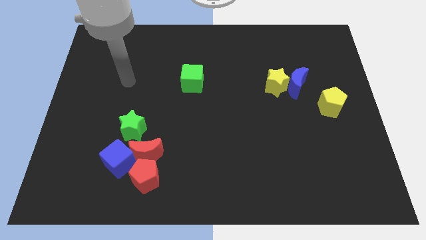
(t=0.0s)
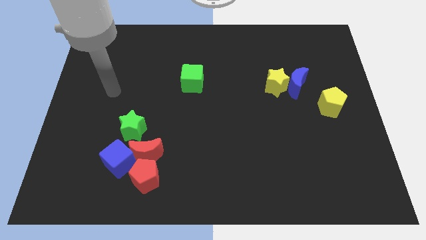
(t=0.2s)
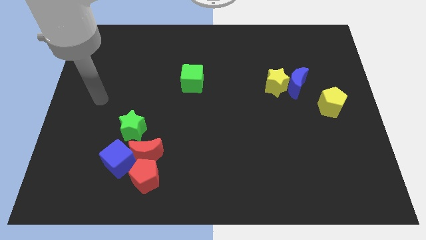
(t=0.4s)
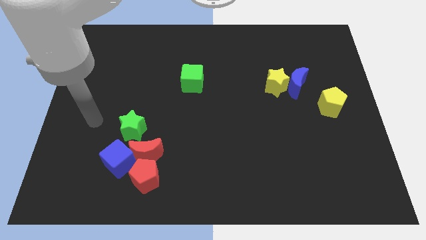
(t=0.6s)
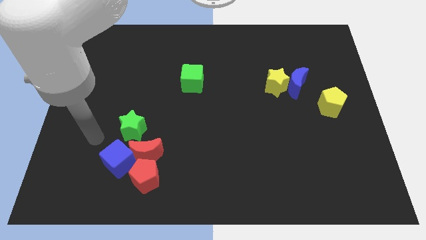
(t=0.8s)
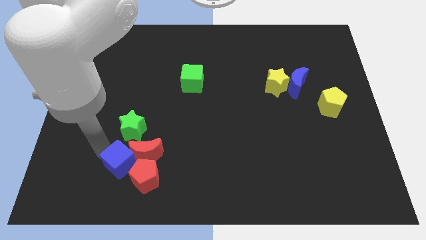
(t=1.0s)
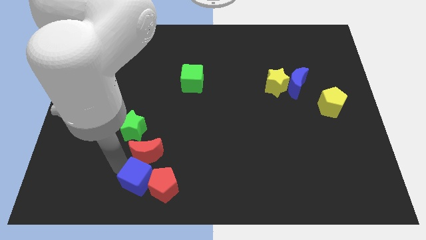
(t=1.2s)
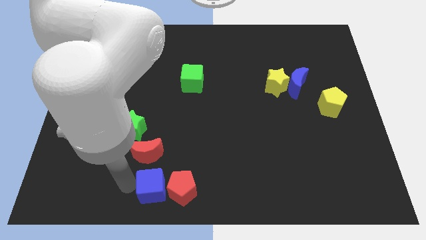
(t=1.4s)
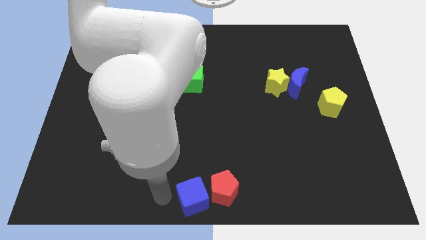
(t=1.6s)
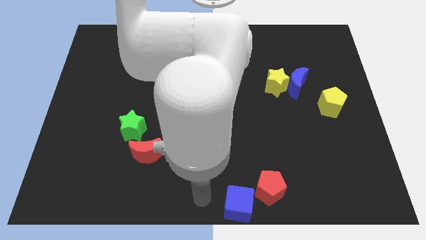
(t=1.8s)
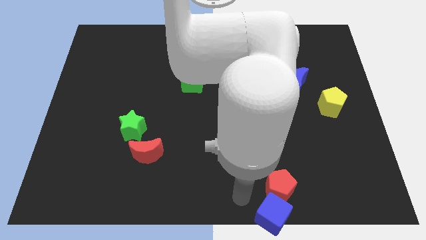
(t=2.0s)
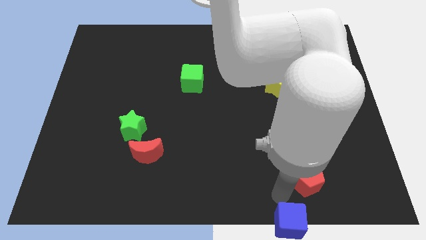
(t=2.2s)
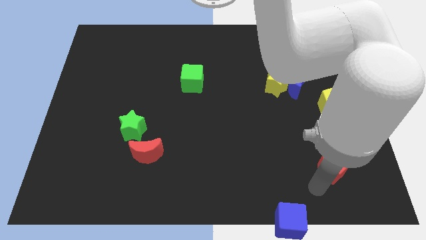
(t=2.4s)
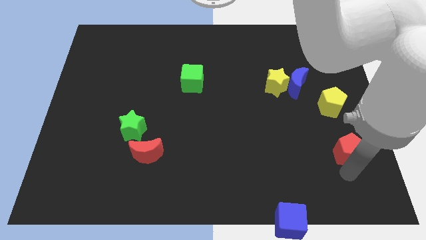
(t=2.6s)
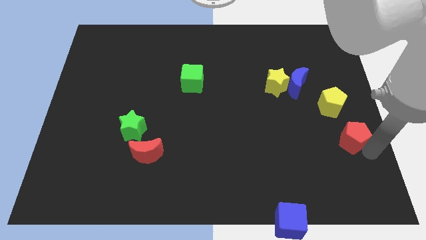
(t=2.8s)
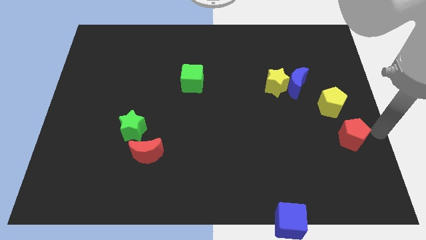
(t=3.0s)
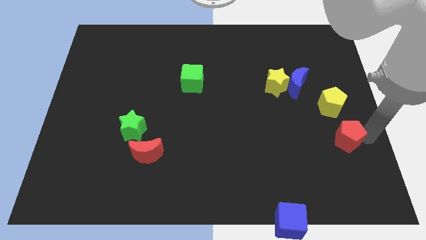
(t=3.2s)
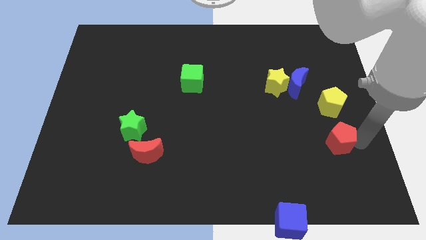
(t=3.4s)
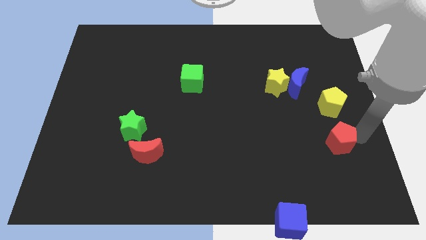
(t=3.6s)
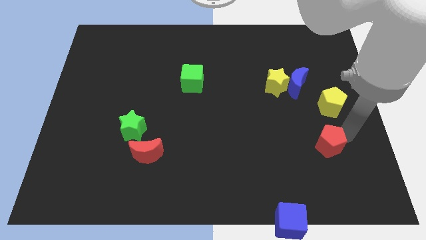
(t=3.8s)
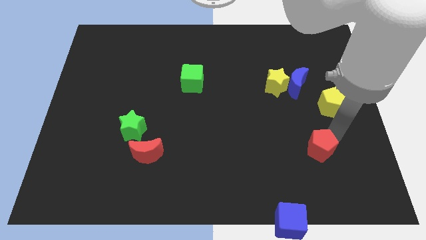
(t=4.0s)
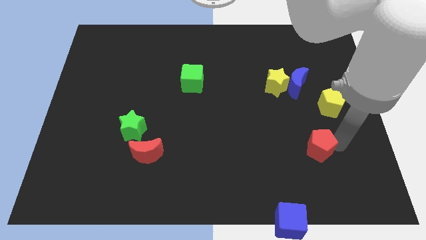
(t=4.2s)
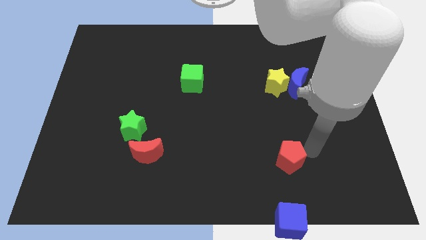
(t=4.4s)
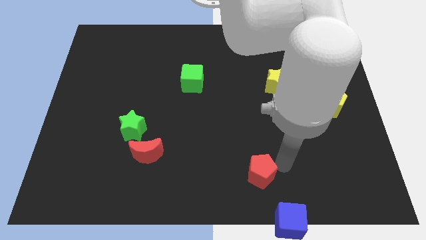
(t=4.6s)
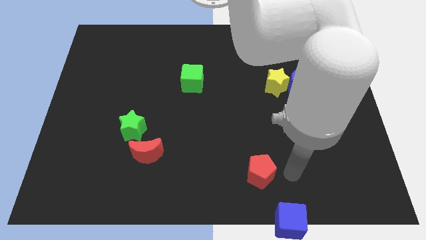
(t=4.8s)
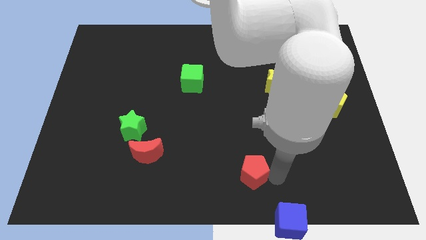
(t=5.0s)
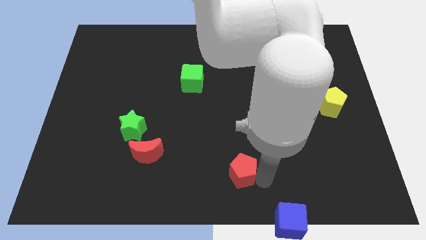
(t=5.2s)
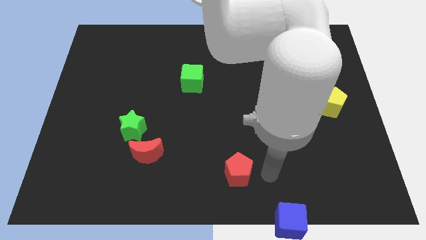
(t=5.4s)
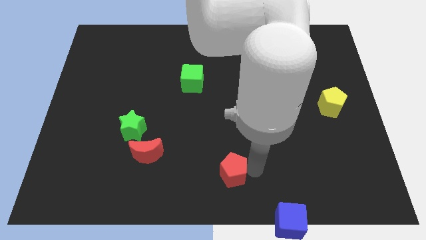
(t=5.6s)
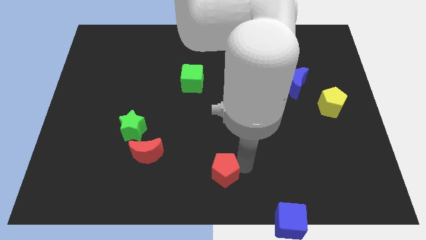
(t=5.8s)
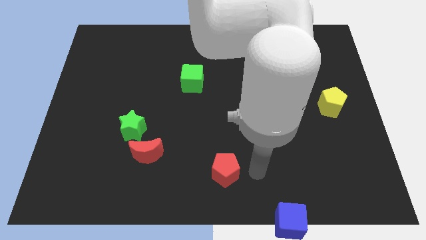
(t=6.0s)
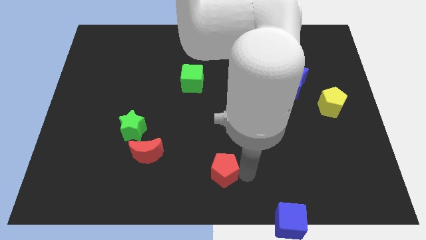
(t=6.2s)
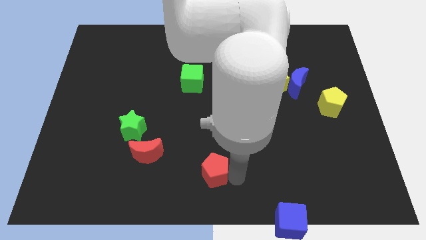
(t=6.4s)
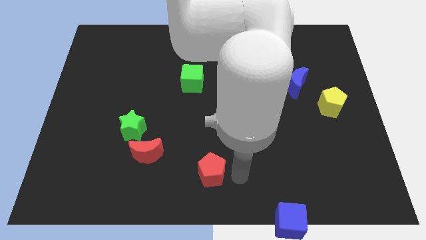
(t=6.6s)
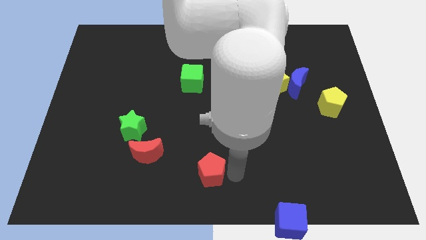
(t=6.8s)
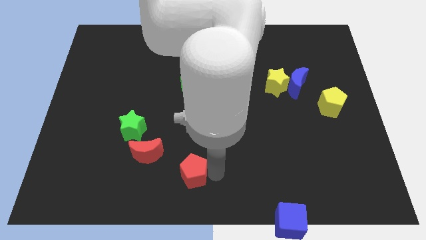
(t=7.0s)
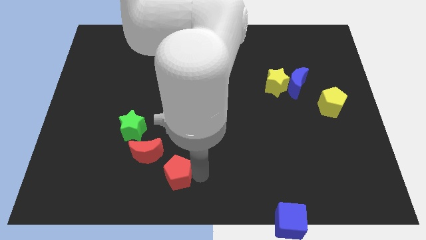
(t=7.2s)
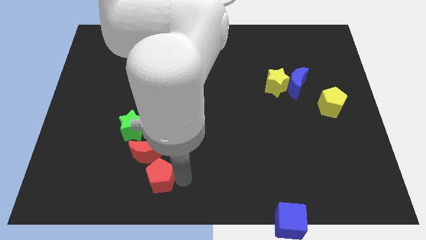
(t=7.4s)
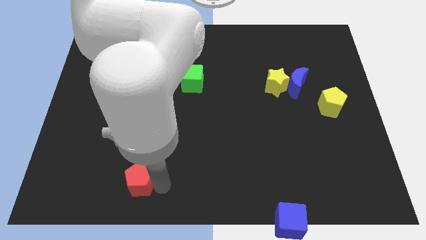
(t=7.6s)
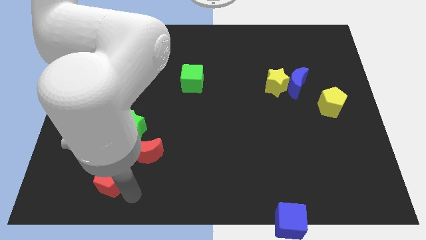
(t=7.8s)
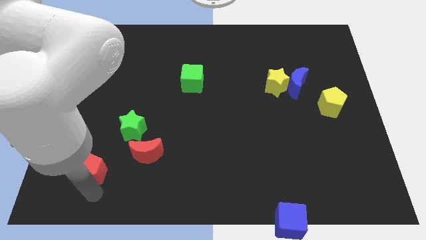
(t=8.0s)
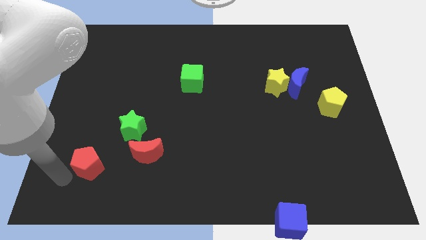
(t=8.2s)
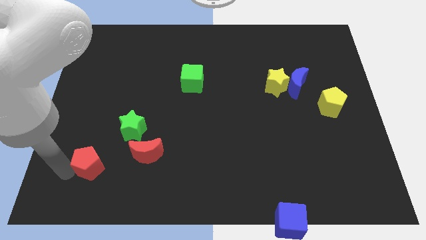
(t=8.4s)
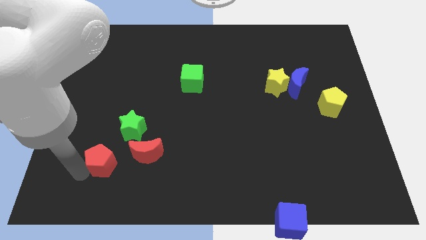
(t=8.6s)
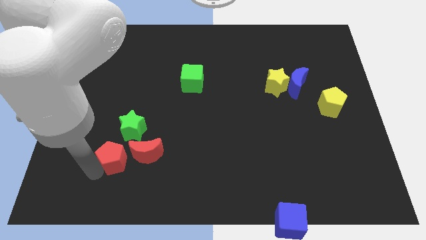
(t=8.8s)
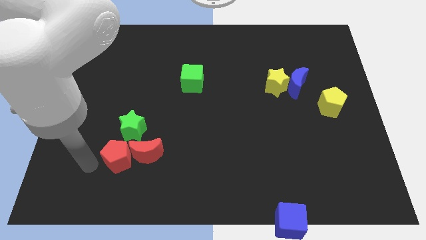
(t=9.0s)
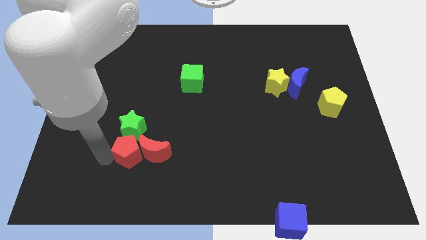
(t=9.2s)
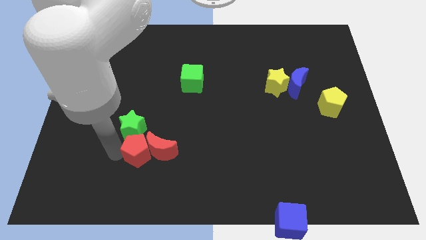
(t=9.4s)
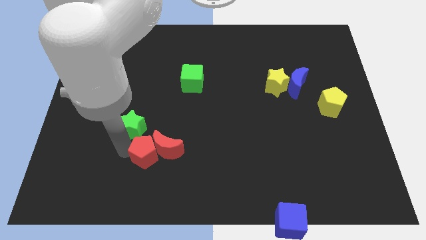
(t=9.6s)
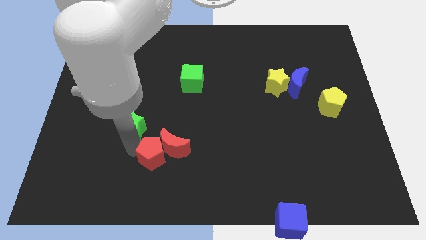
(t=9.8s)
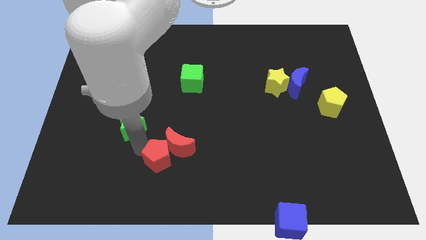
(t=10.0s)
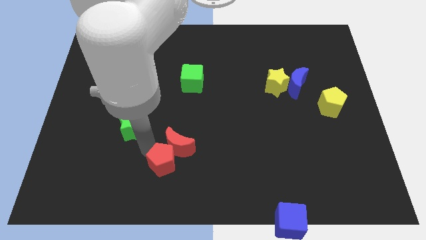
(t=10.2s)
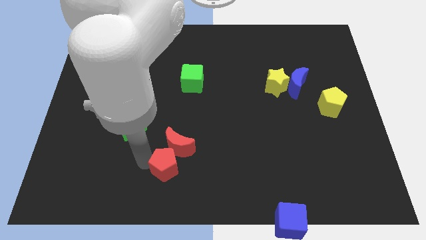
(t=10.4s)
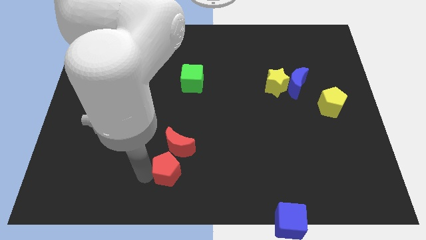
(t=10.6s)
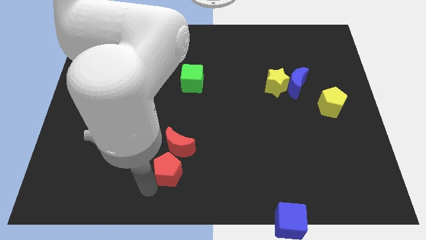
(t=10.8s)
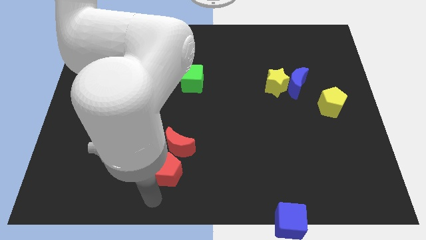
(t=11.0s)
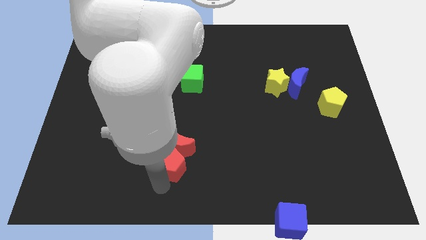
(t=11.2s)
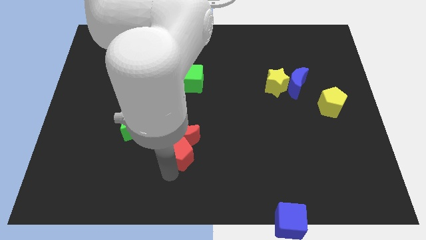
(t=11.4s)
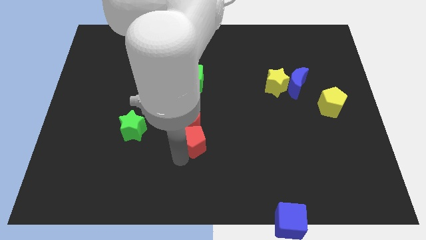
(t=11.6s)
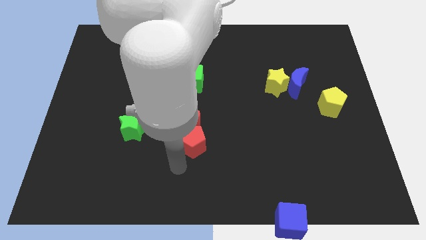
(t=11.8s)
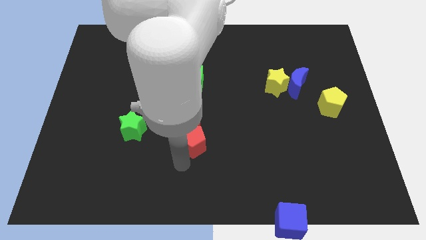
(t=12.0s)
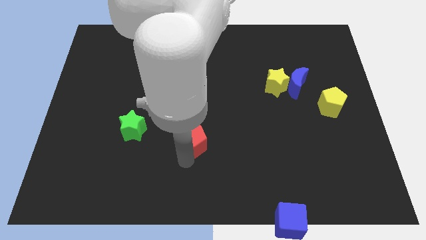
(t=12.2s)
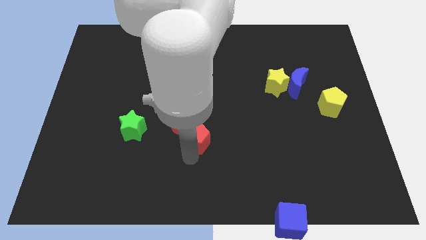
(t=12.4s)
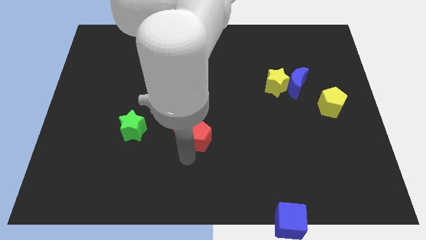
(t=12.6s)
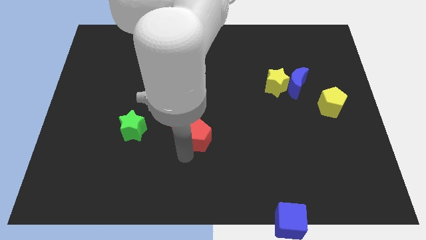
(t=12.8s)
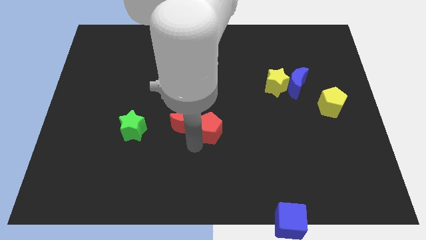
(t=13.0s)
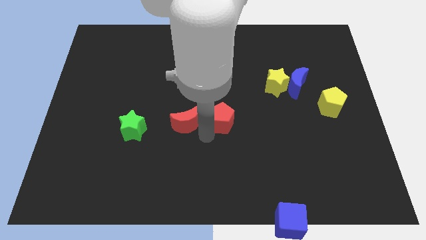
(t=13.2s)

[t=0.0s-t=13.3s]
slide the red pentagon upwards and right diagonally

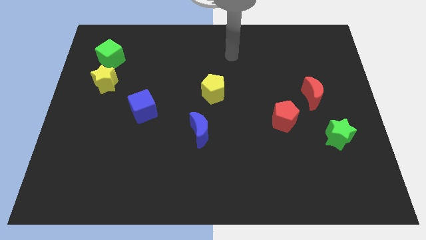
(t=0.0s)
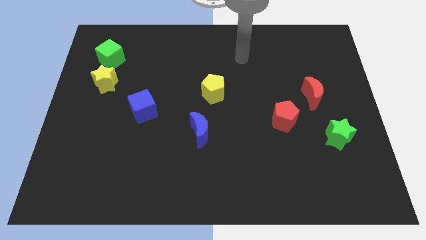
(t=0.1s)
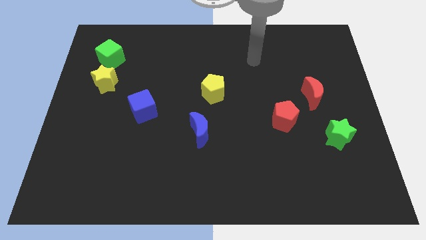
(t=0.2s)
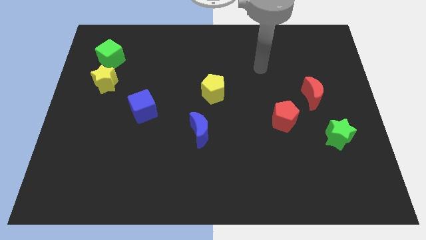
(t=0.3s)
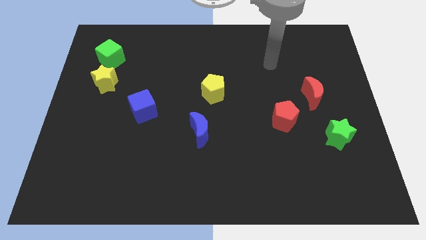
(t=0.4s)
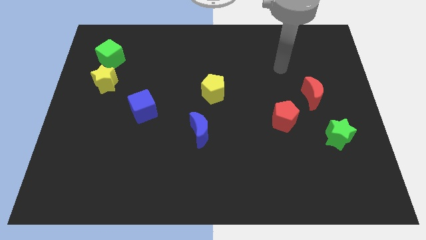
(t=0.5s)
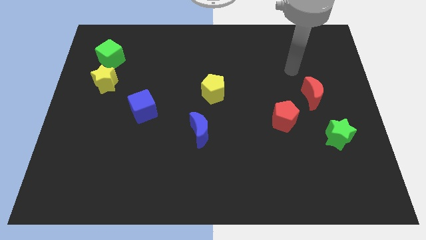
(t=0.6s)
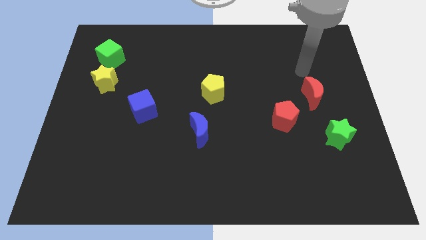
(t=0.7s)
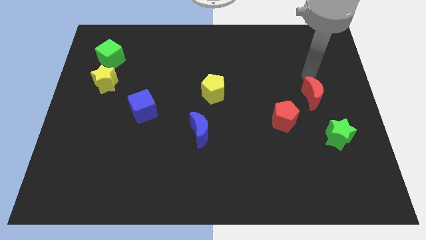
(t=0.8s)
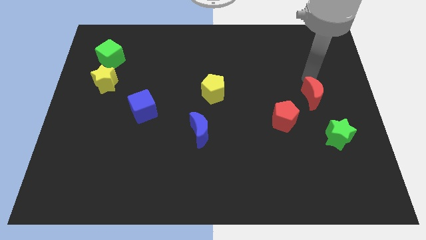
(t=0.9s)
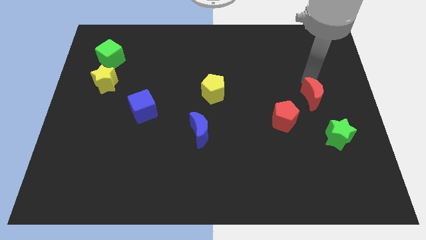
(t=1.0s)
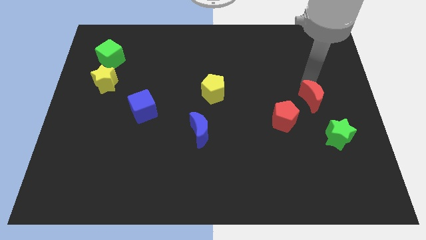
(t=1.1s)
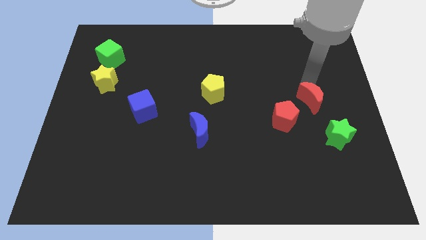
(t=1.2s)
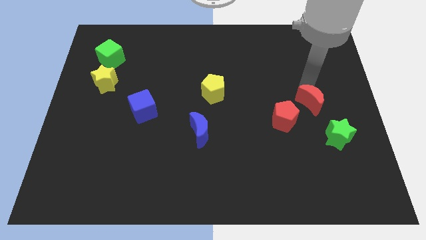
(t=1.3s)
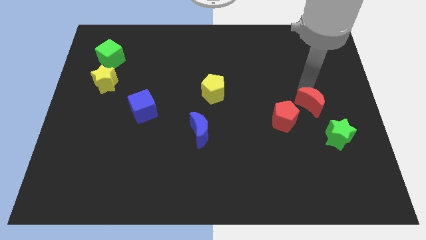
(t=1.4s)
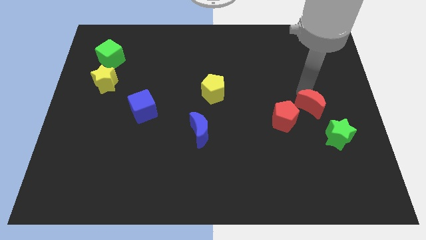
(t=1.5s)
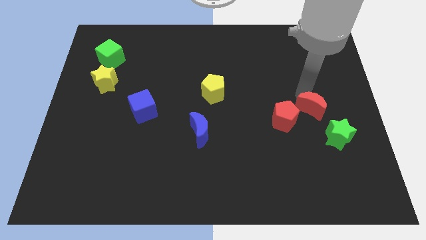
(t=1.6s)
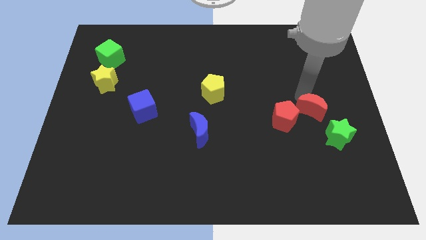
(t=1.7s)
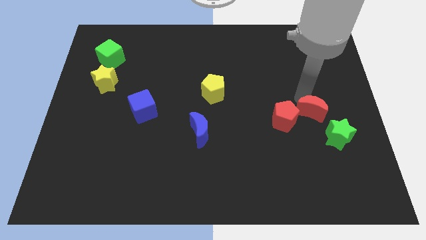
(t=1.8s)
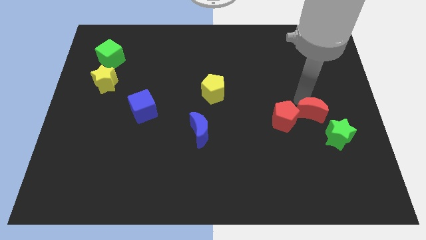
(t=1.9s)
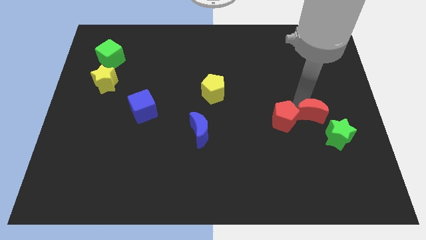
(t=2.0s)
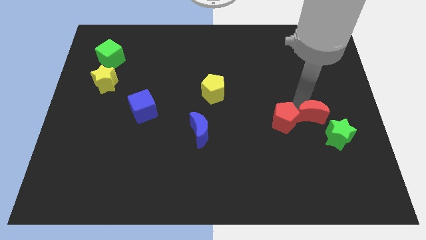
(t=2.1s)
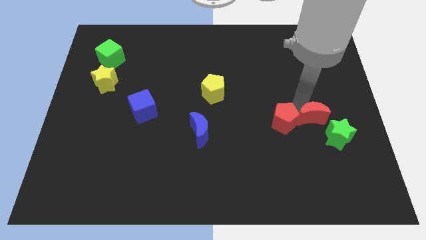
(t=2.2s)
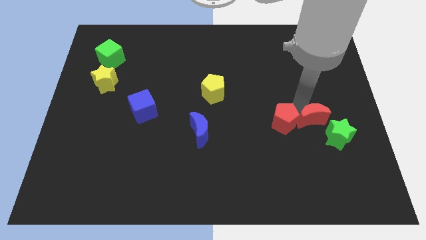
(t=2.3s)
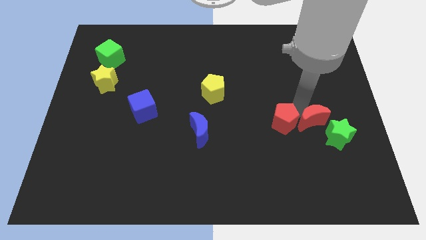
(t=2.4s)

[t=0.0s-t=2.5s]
slightly slide the red moon downwards
